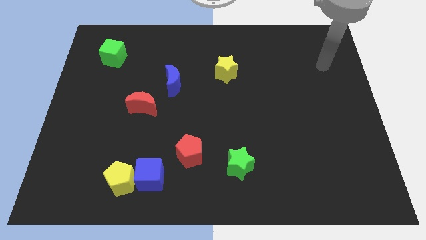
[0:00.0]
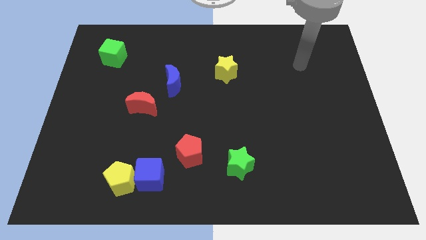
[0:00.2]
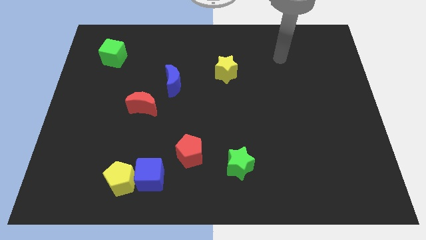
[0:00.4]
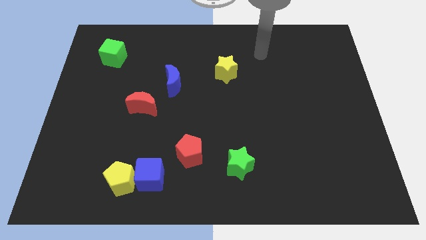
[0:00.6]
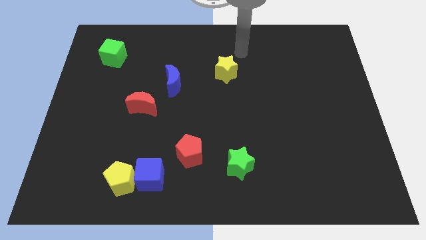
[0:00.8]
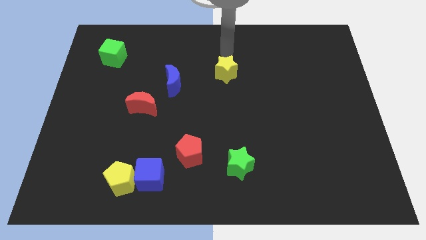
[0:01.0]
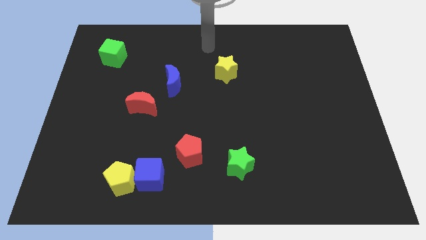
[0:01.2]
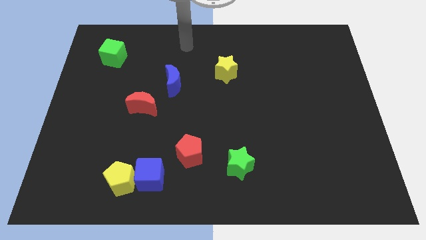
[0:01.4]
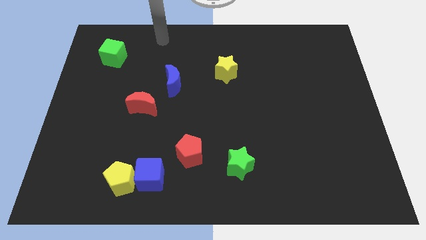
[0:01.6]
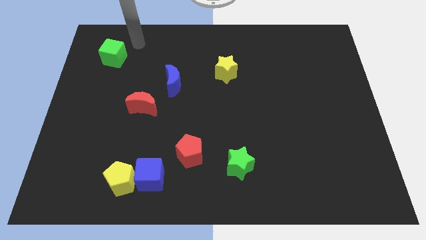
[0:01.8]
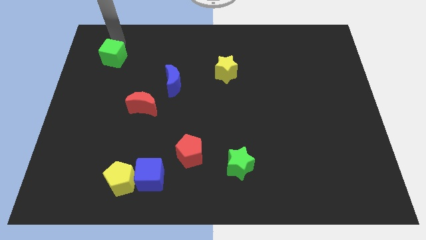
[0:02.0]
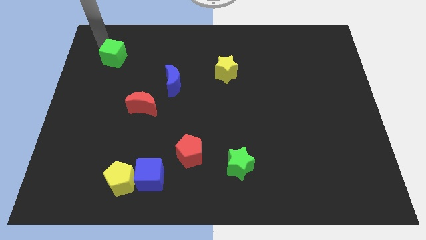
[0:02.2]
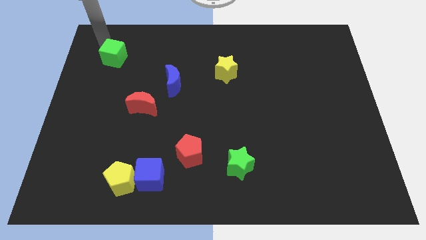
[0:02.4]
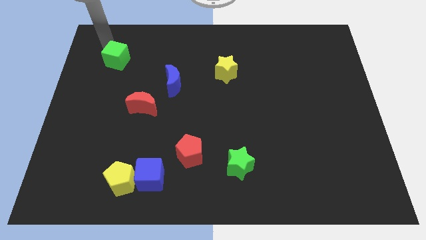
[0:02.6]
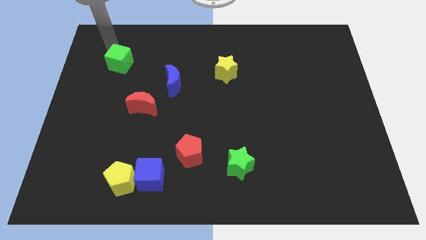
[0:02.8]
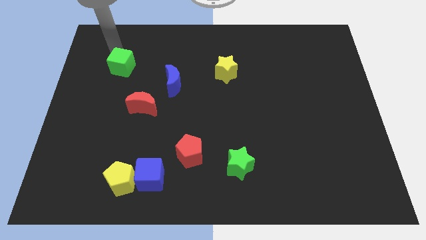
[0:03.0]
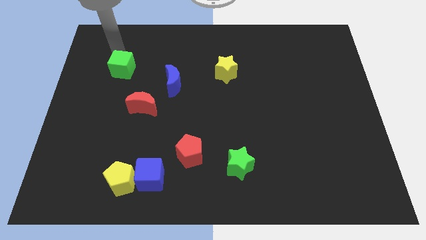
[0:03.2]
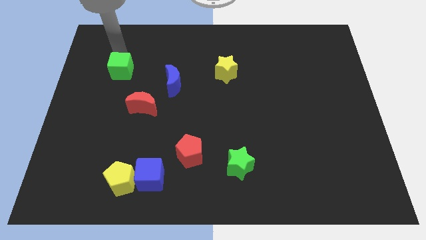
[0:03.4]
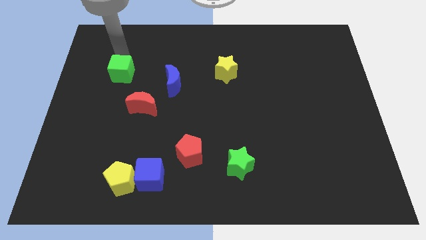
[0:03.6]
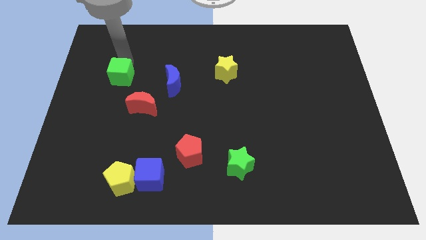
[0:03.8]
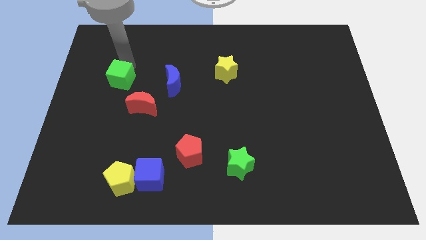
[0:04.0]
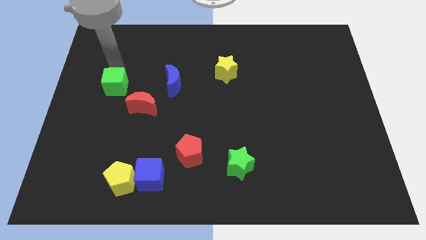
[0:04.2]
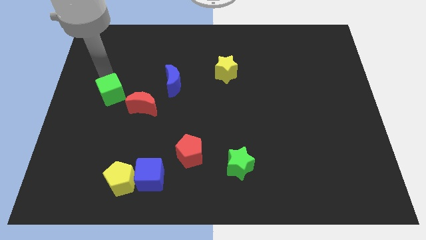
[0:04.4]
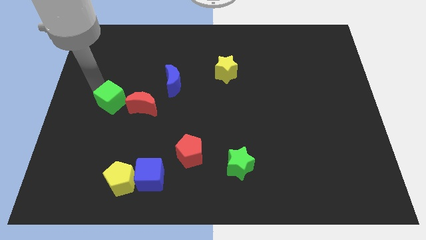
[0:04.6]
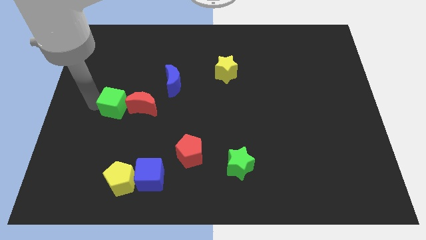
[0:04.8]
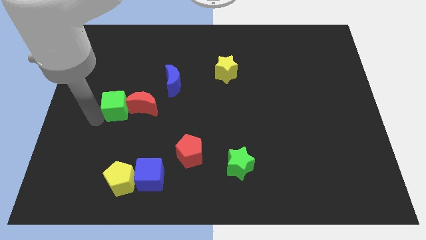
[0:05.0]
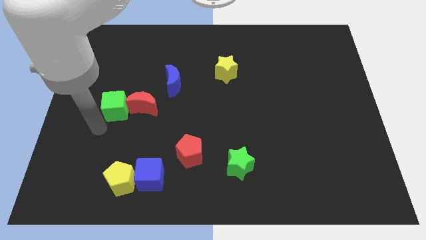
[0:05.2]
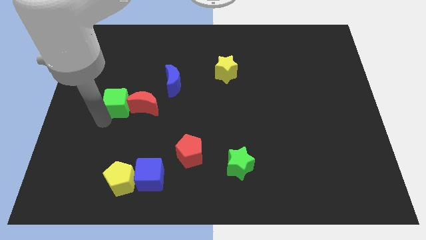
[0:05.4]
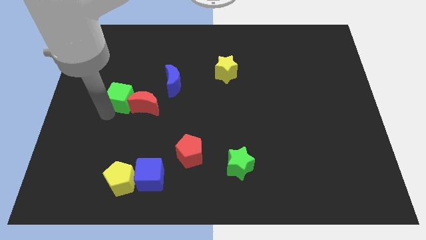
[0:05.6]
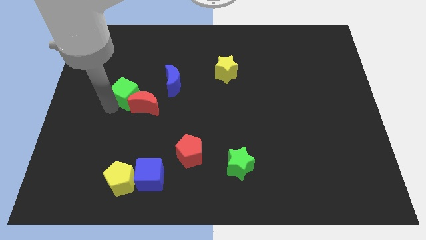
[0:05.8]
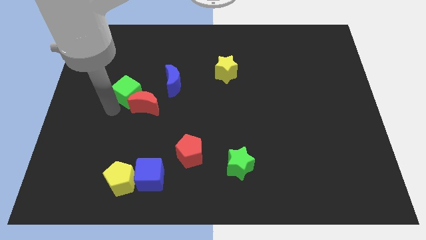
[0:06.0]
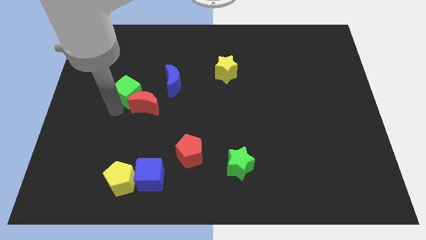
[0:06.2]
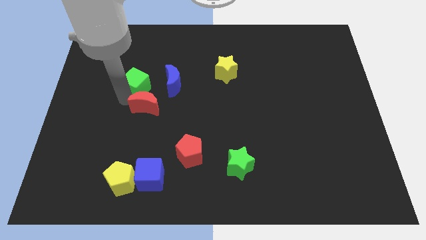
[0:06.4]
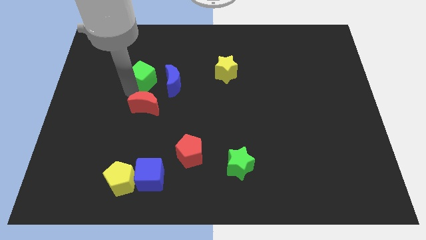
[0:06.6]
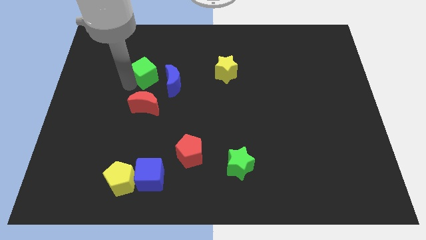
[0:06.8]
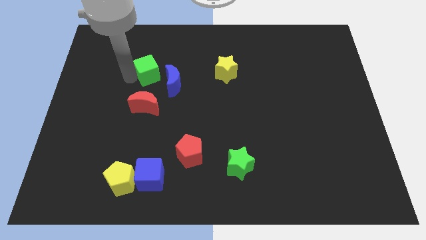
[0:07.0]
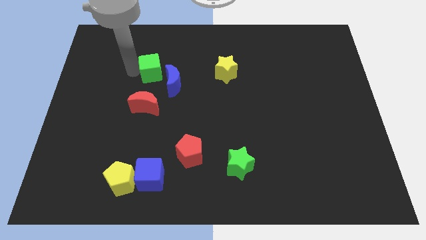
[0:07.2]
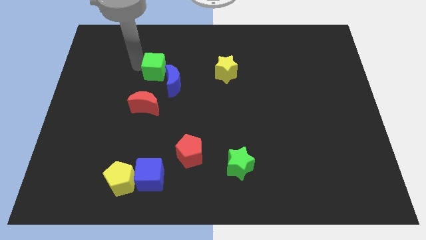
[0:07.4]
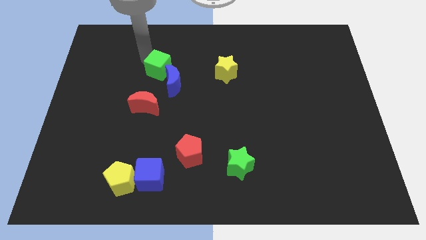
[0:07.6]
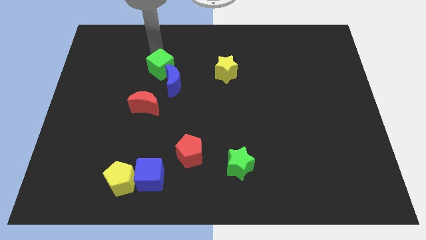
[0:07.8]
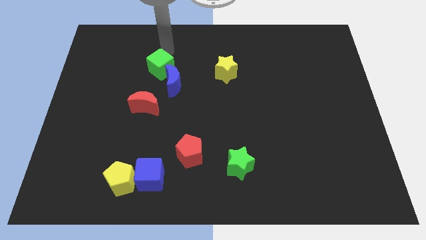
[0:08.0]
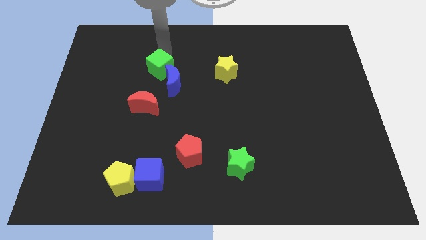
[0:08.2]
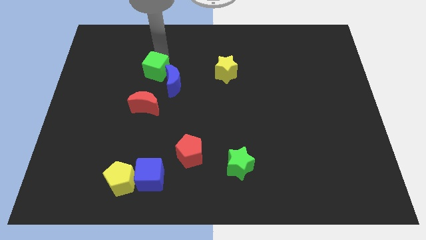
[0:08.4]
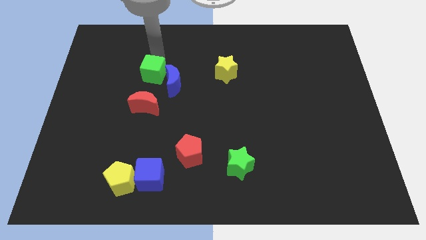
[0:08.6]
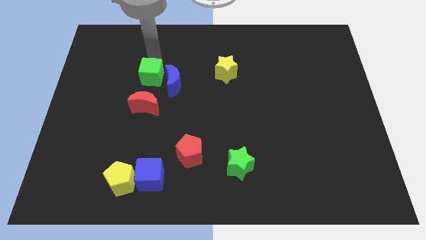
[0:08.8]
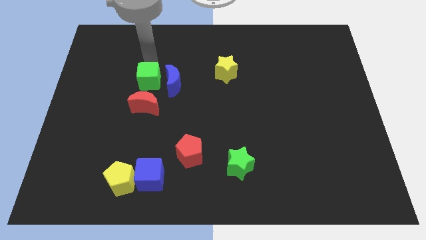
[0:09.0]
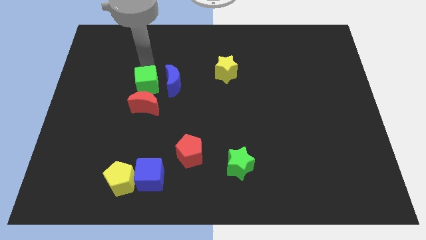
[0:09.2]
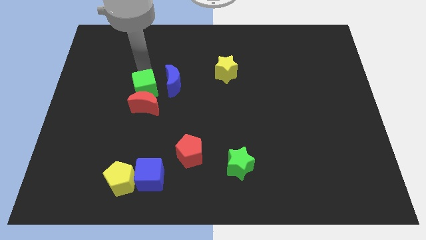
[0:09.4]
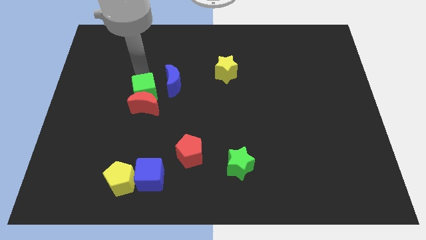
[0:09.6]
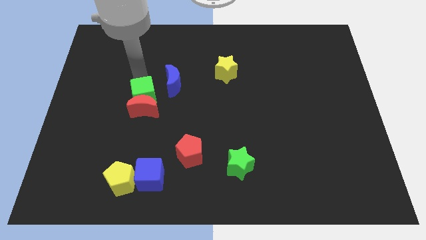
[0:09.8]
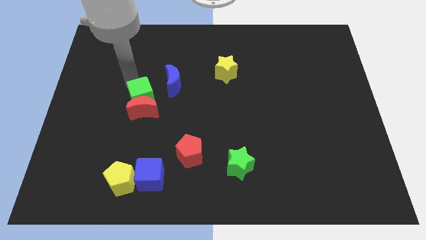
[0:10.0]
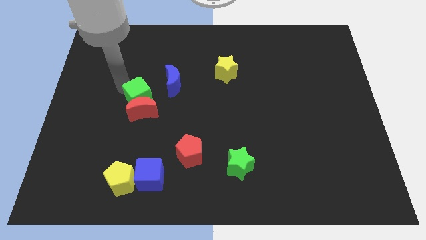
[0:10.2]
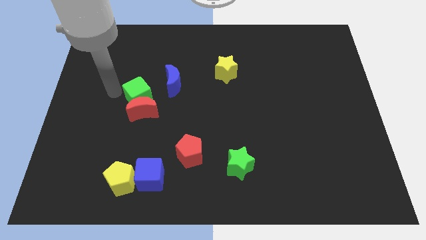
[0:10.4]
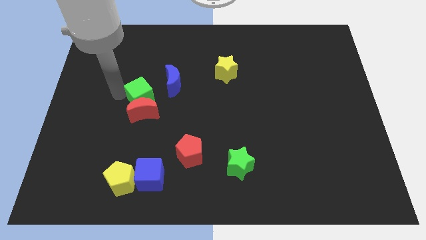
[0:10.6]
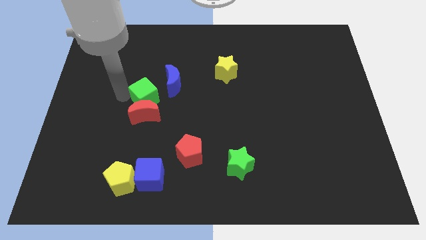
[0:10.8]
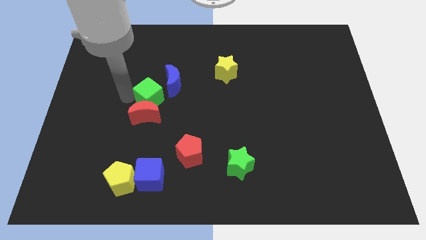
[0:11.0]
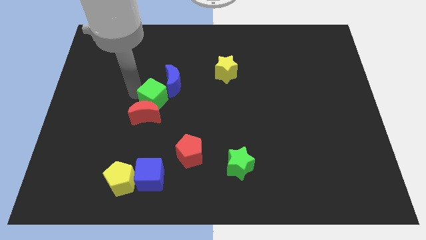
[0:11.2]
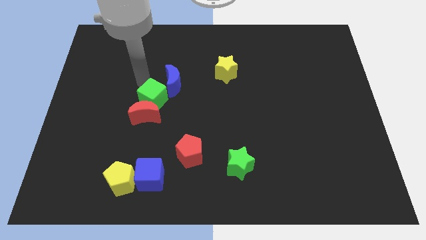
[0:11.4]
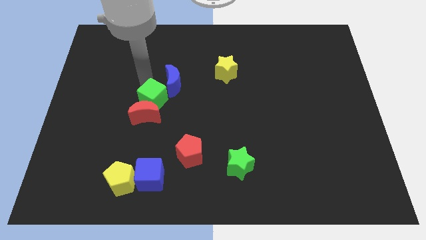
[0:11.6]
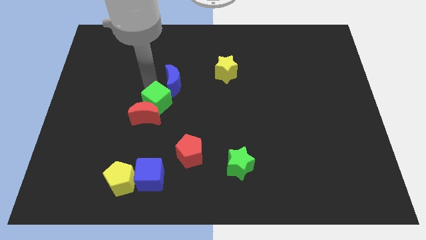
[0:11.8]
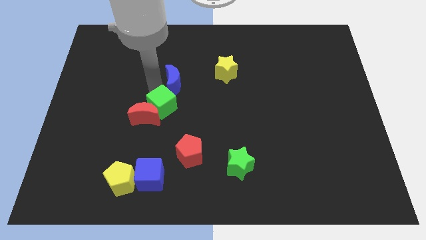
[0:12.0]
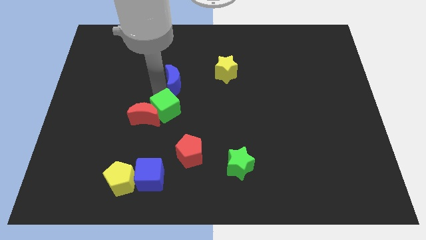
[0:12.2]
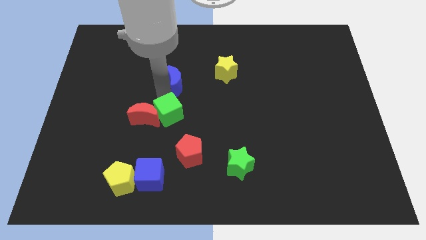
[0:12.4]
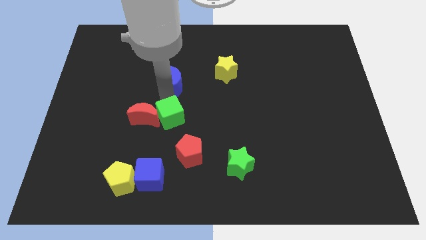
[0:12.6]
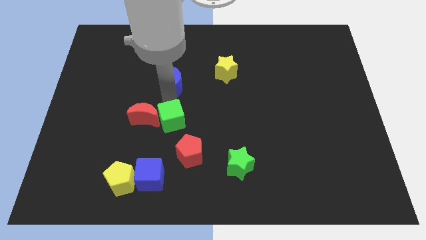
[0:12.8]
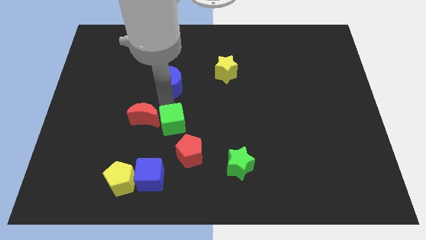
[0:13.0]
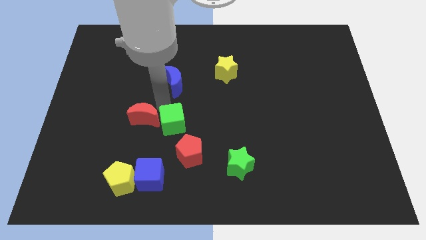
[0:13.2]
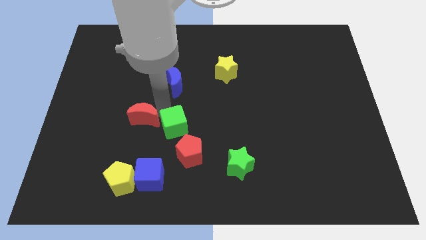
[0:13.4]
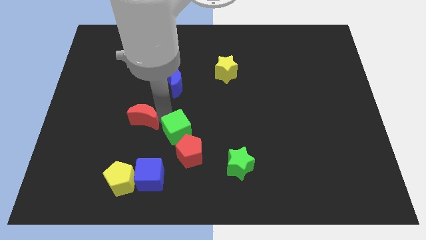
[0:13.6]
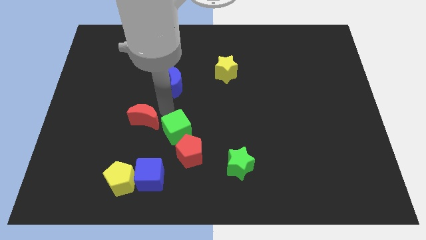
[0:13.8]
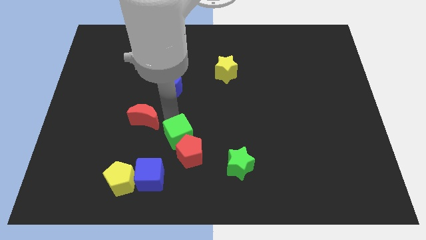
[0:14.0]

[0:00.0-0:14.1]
push the green cube to the red pentagon
